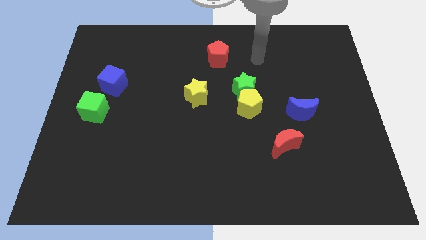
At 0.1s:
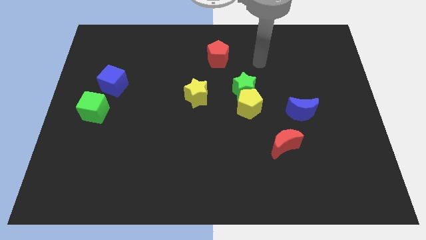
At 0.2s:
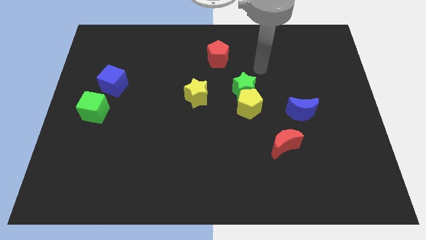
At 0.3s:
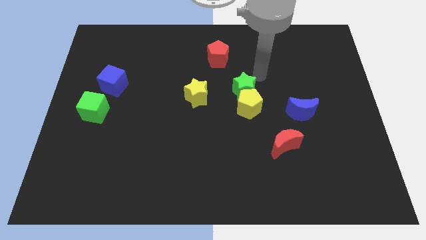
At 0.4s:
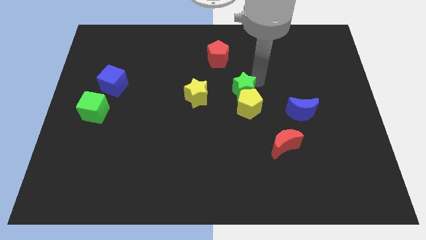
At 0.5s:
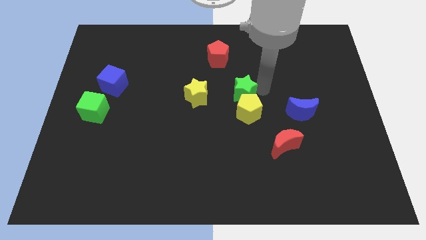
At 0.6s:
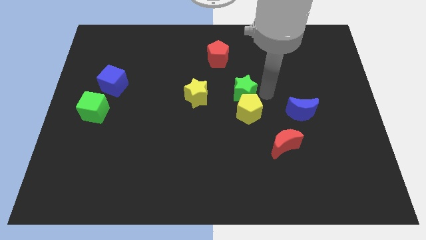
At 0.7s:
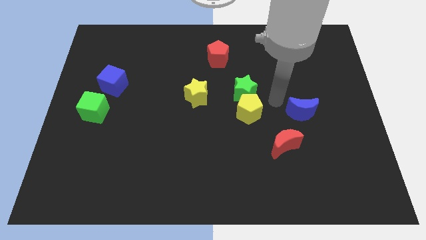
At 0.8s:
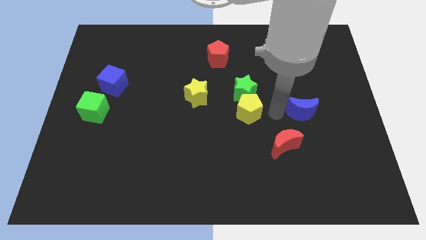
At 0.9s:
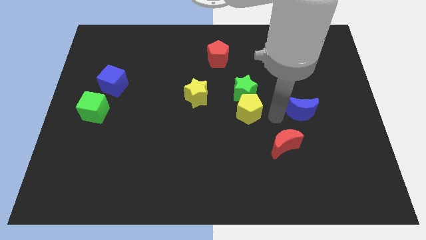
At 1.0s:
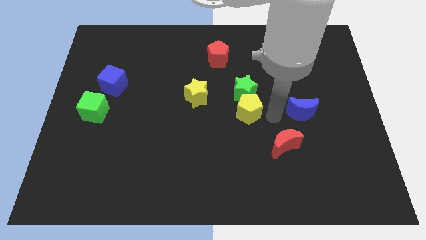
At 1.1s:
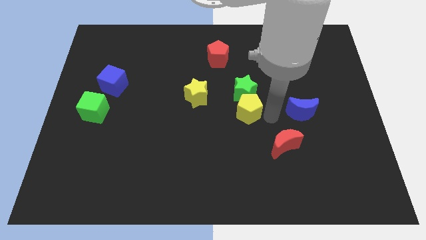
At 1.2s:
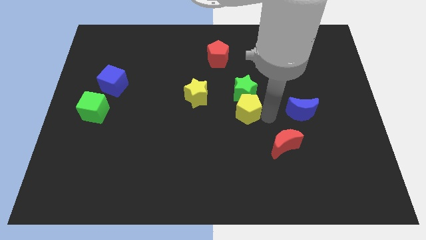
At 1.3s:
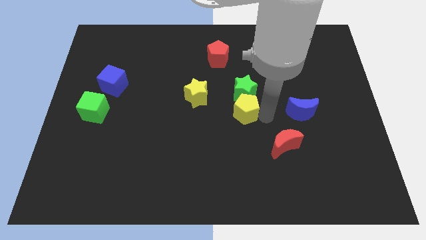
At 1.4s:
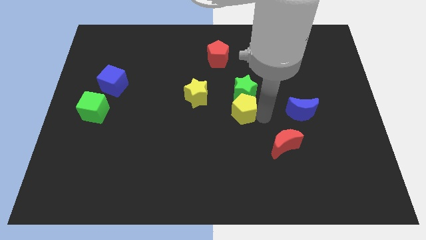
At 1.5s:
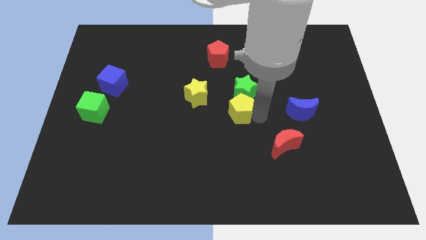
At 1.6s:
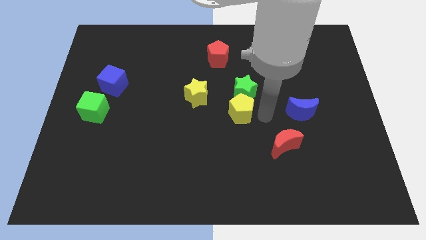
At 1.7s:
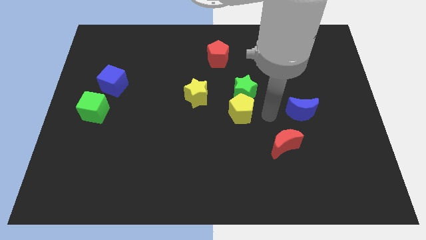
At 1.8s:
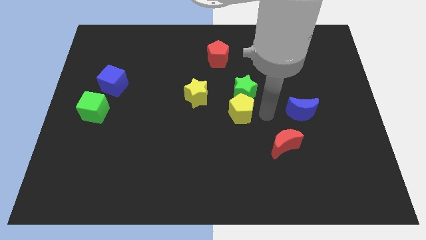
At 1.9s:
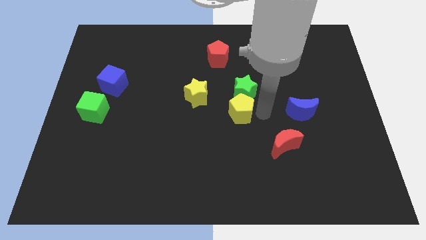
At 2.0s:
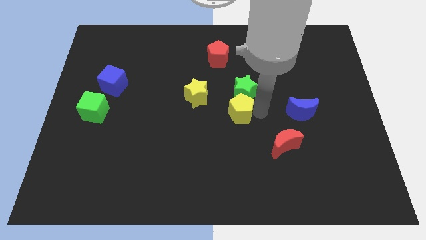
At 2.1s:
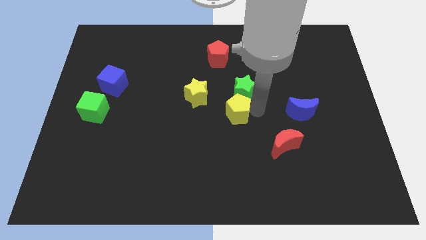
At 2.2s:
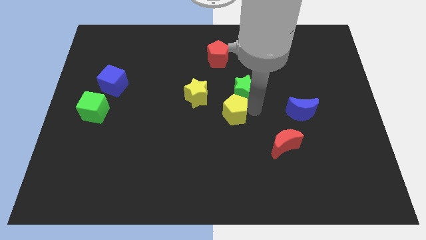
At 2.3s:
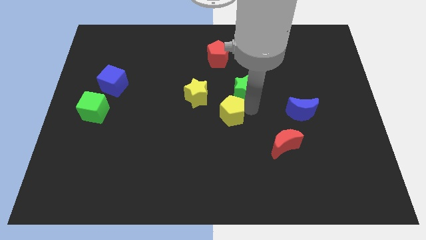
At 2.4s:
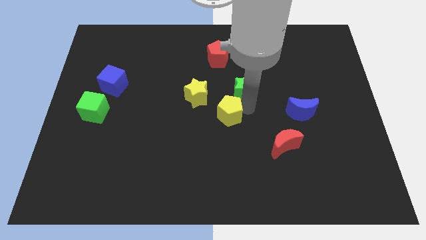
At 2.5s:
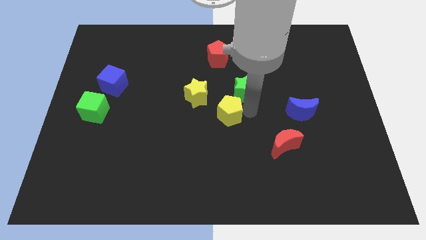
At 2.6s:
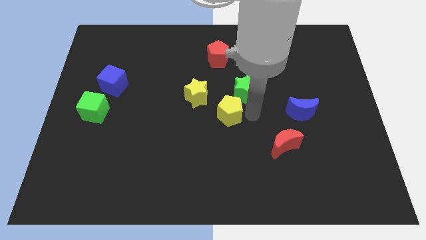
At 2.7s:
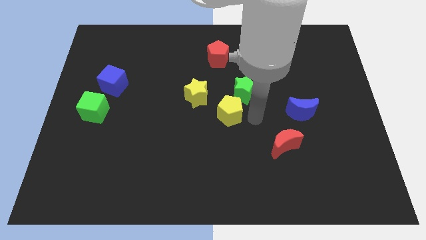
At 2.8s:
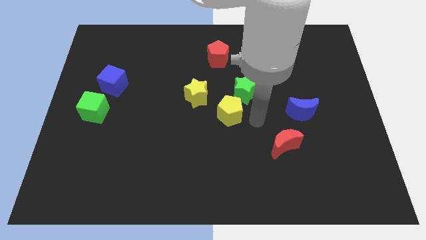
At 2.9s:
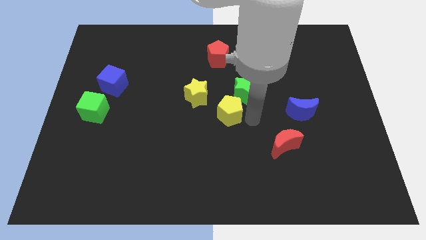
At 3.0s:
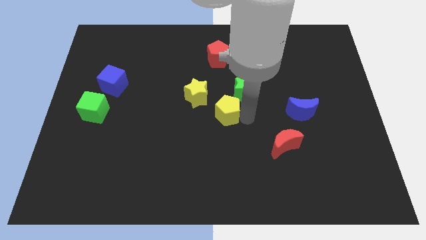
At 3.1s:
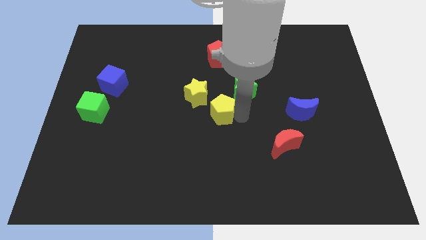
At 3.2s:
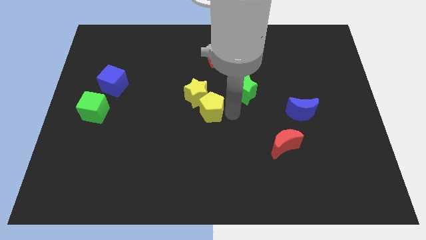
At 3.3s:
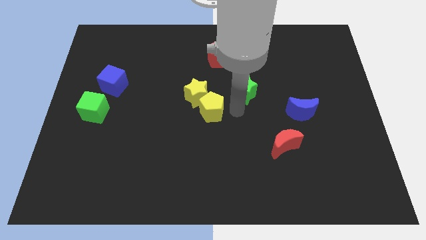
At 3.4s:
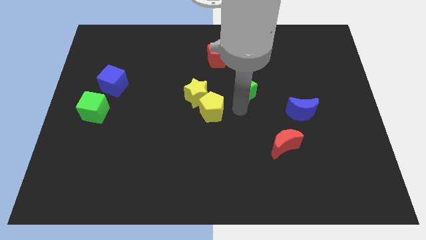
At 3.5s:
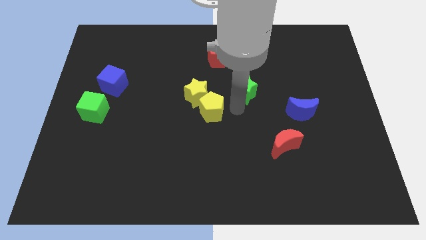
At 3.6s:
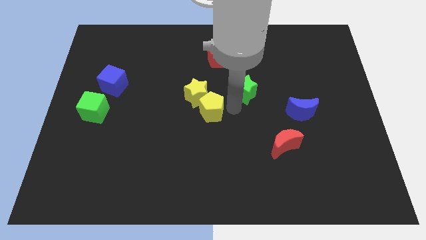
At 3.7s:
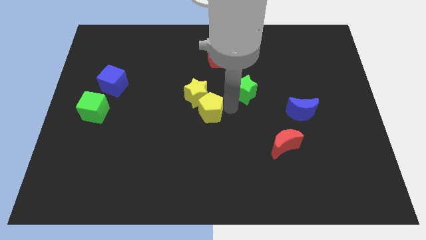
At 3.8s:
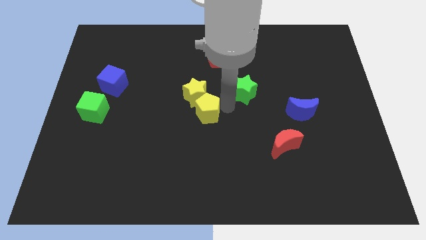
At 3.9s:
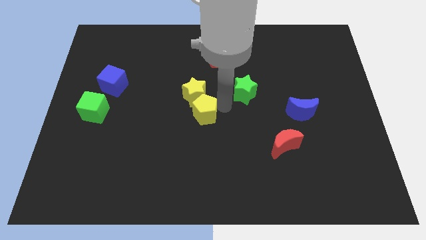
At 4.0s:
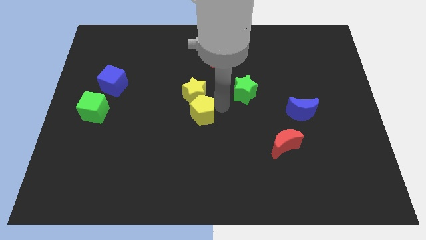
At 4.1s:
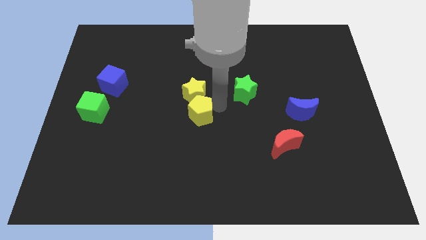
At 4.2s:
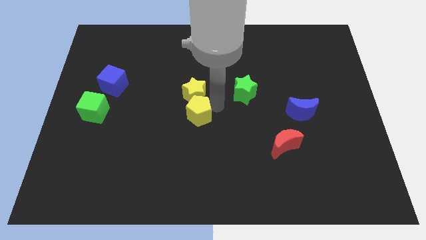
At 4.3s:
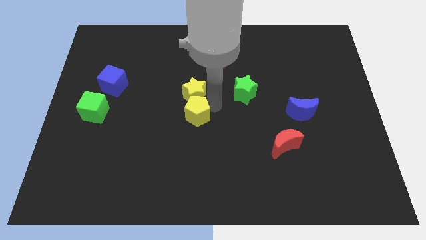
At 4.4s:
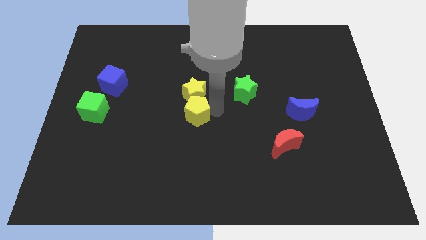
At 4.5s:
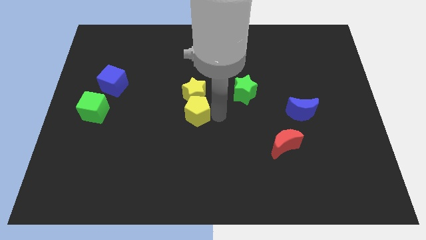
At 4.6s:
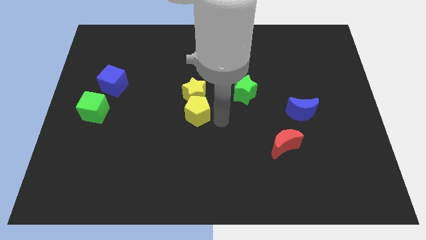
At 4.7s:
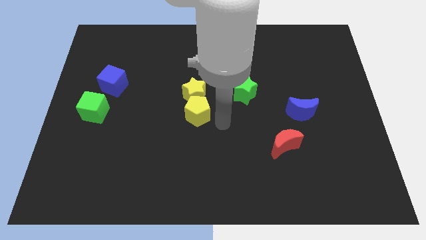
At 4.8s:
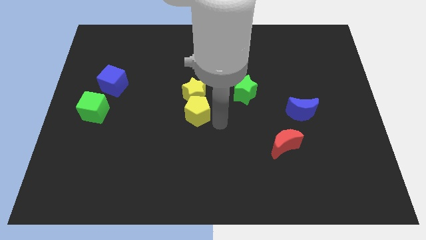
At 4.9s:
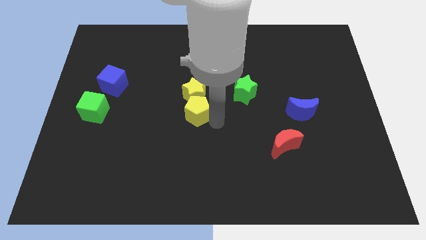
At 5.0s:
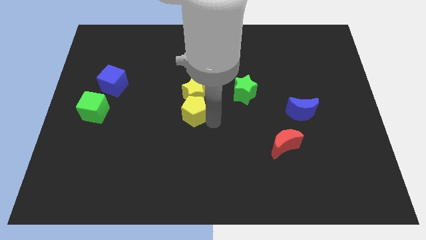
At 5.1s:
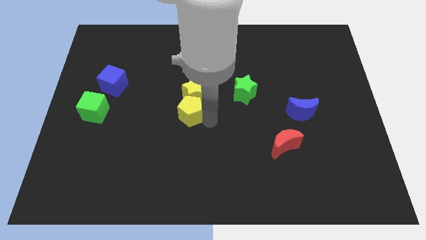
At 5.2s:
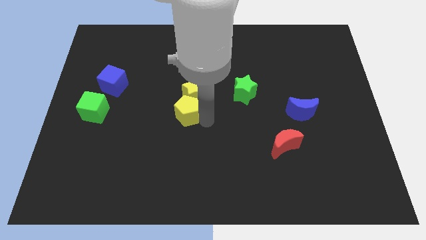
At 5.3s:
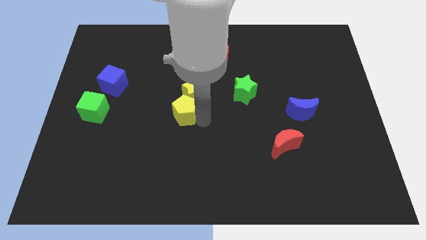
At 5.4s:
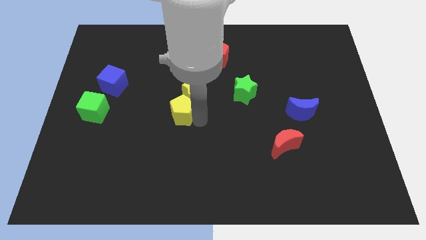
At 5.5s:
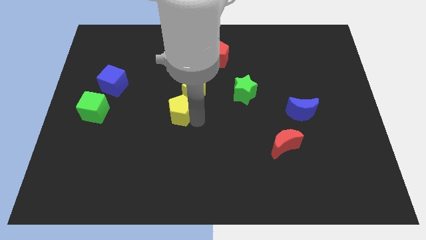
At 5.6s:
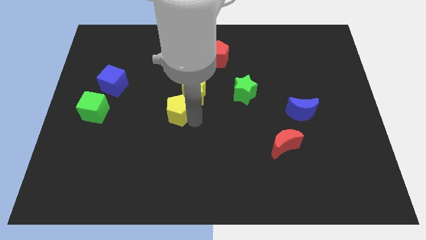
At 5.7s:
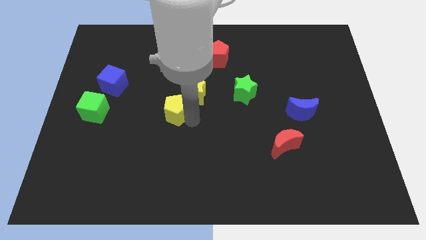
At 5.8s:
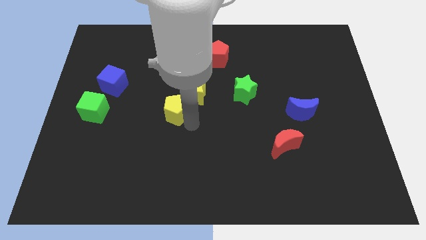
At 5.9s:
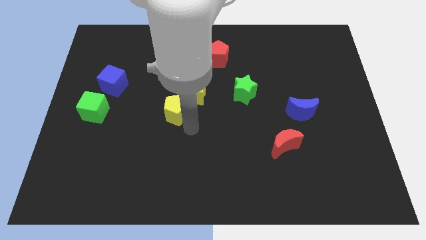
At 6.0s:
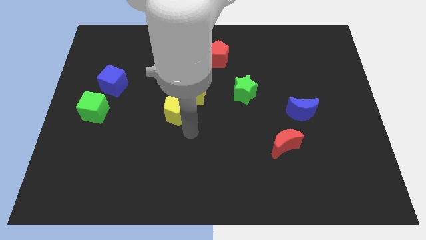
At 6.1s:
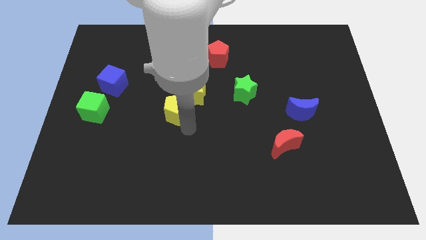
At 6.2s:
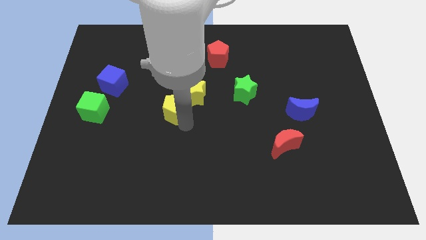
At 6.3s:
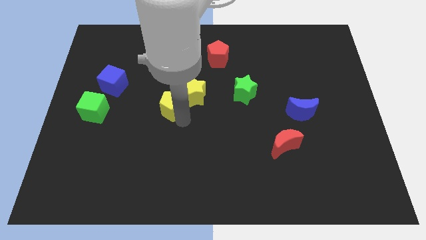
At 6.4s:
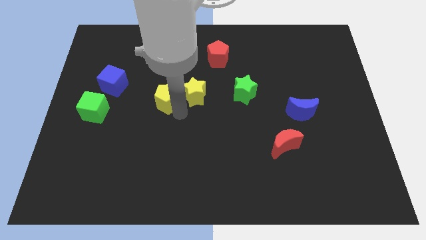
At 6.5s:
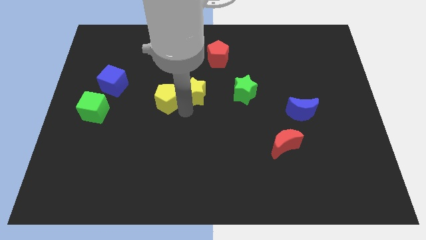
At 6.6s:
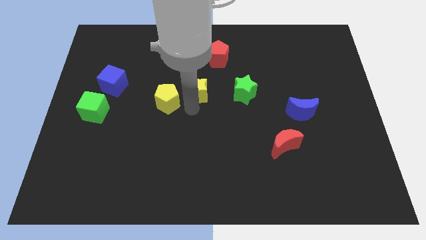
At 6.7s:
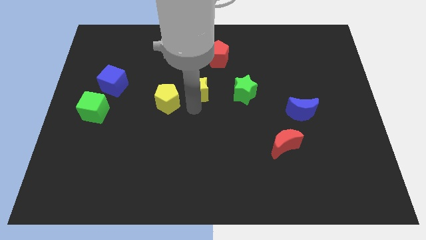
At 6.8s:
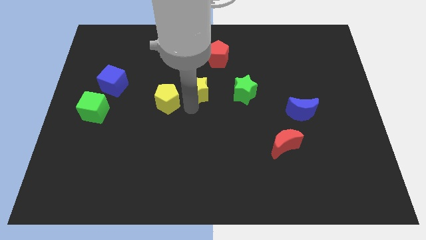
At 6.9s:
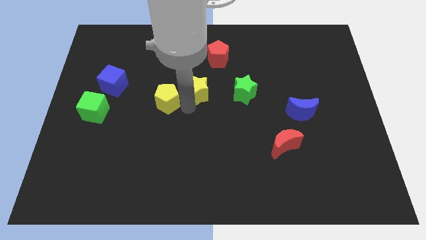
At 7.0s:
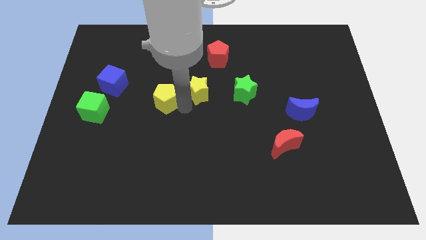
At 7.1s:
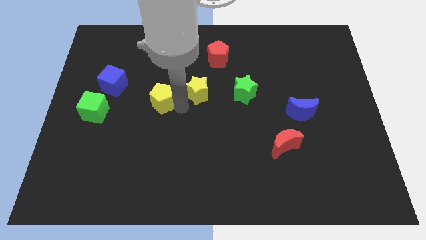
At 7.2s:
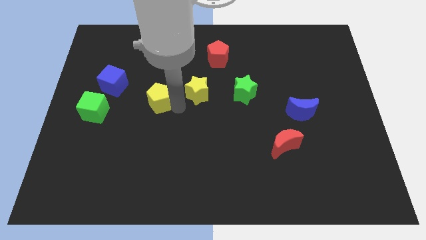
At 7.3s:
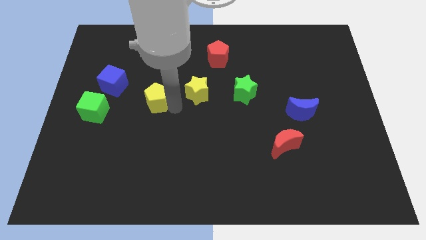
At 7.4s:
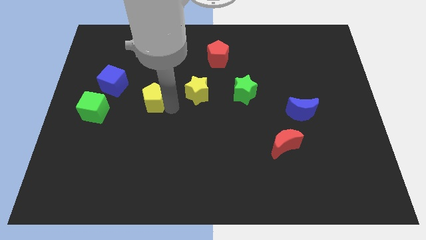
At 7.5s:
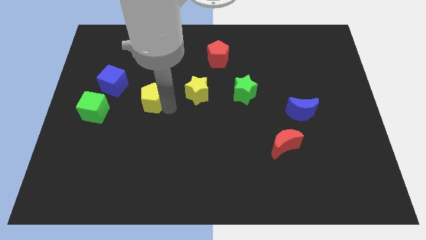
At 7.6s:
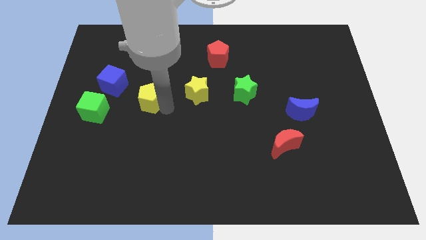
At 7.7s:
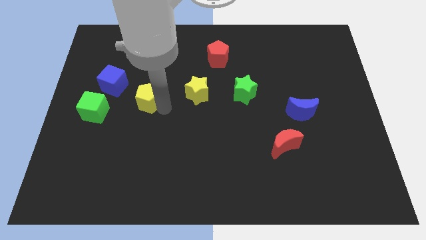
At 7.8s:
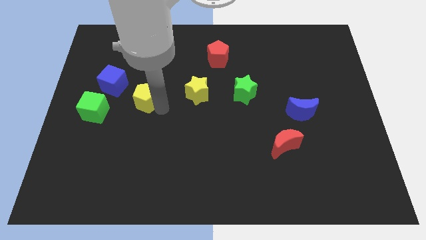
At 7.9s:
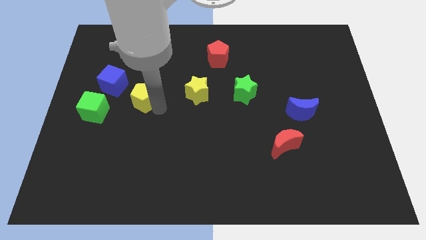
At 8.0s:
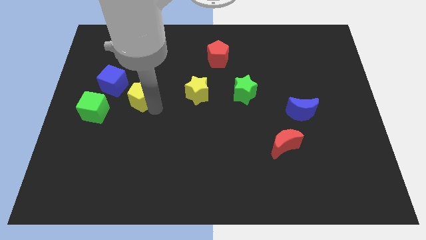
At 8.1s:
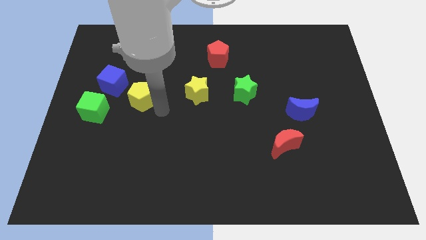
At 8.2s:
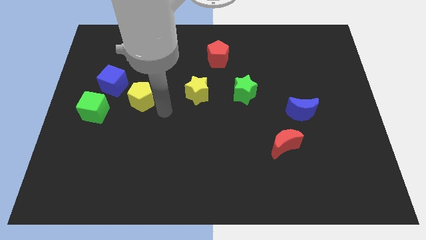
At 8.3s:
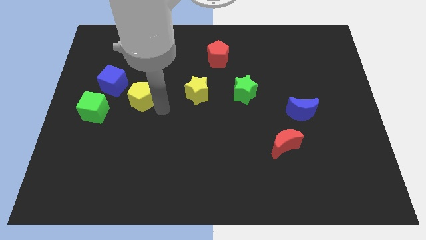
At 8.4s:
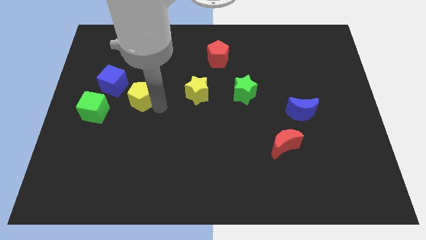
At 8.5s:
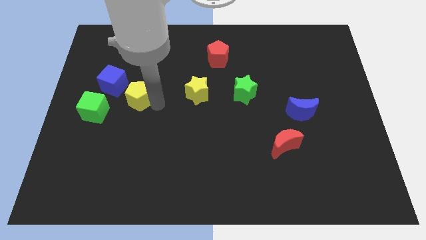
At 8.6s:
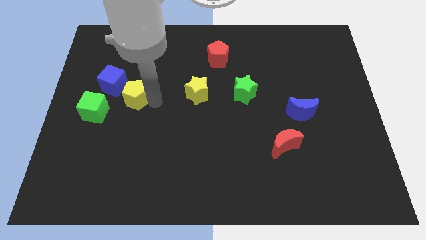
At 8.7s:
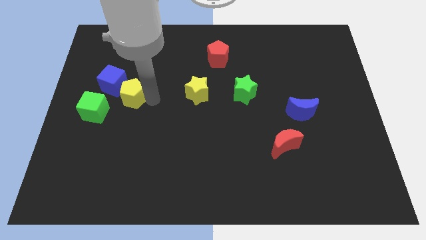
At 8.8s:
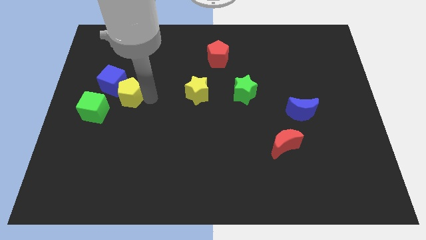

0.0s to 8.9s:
move the yellow pentagon close to the blue cube
